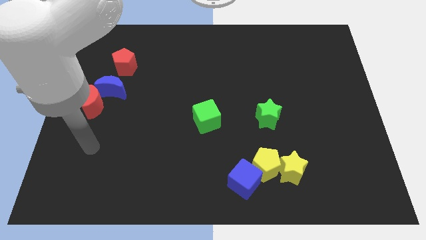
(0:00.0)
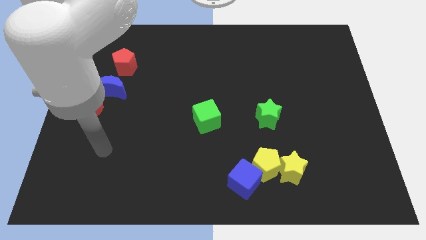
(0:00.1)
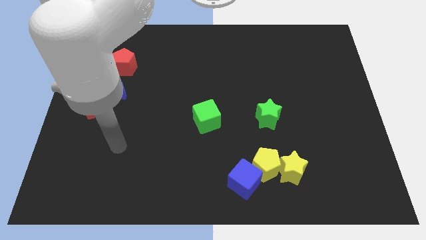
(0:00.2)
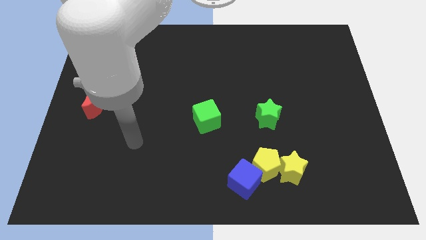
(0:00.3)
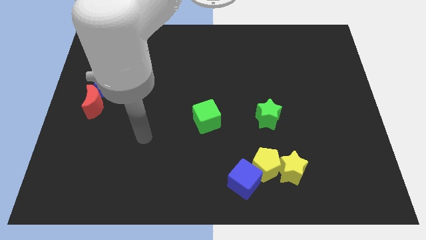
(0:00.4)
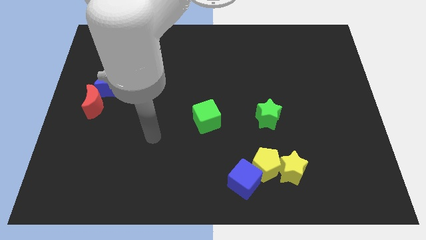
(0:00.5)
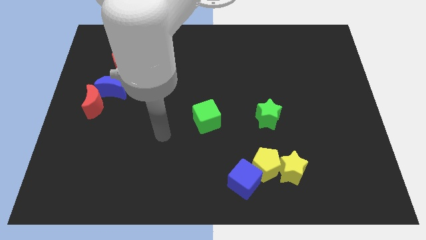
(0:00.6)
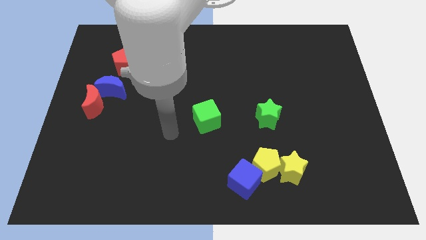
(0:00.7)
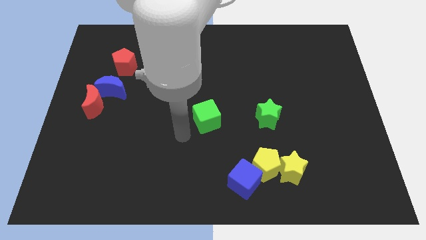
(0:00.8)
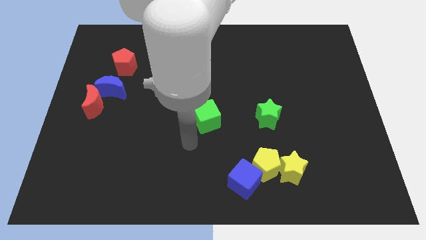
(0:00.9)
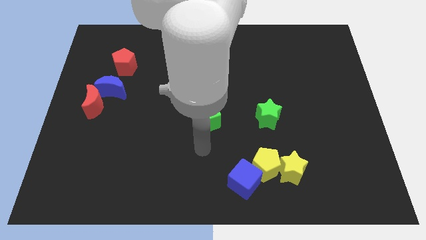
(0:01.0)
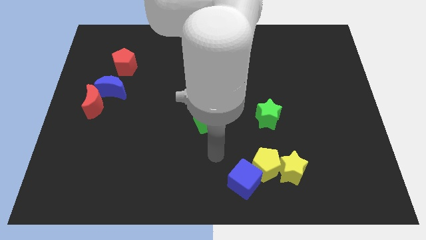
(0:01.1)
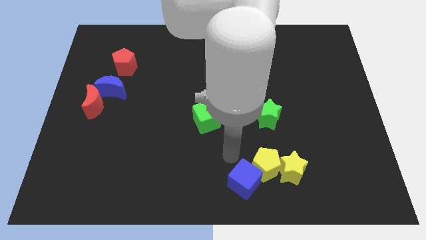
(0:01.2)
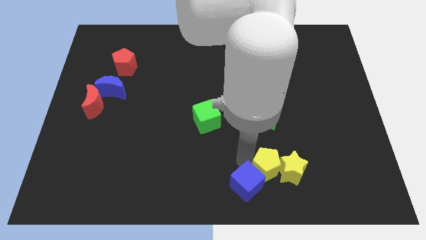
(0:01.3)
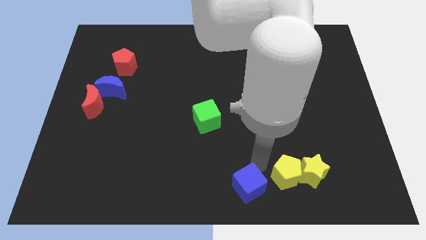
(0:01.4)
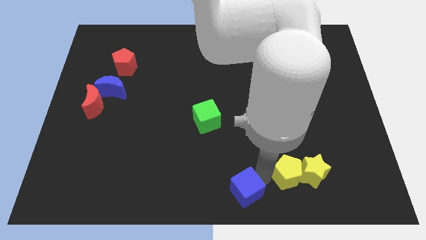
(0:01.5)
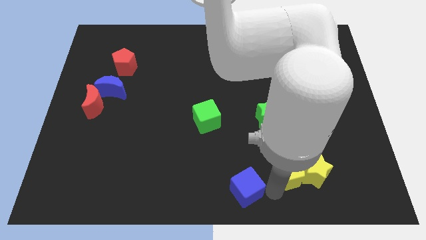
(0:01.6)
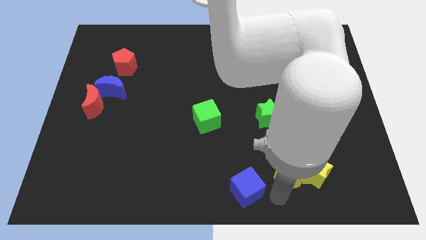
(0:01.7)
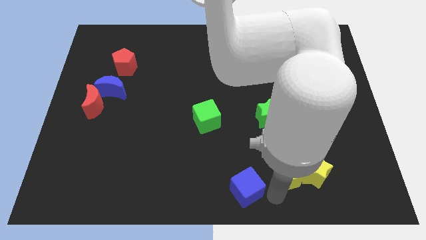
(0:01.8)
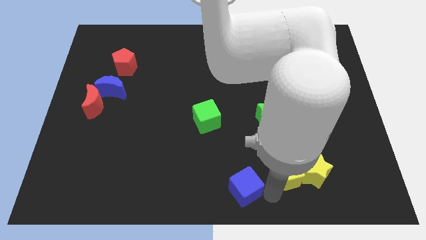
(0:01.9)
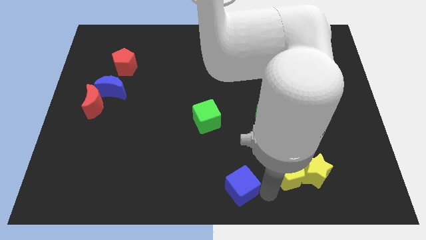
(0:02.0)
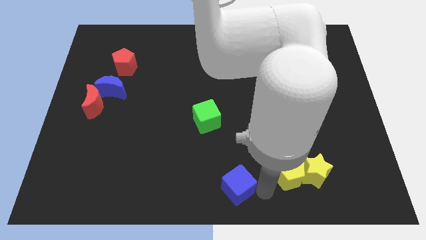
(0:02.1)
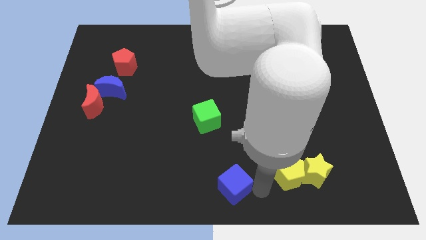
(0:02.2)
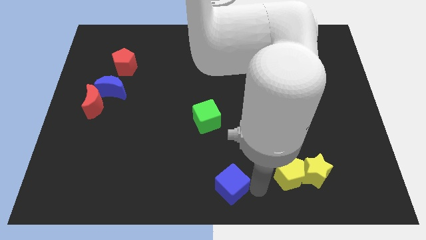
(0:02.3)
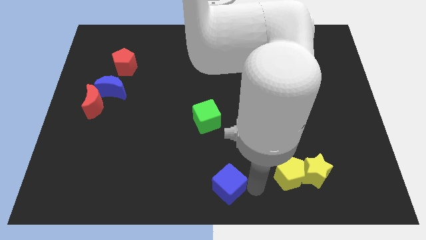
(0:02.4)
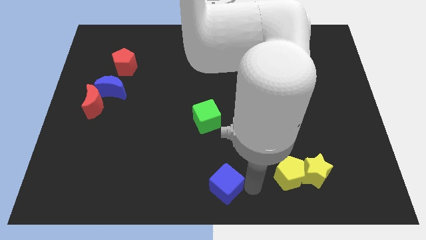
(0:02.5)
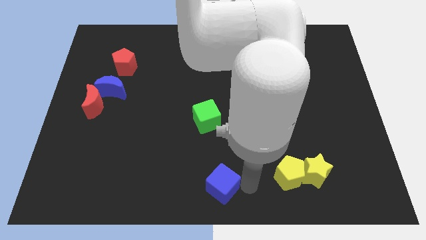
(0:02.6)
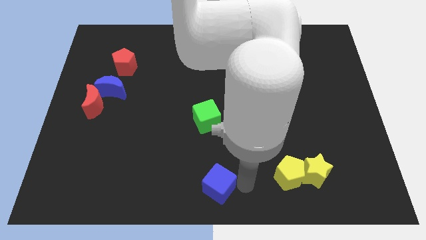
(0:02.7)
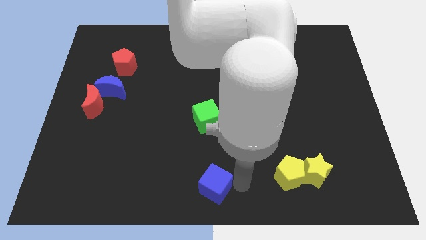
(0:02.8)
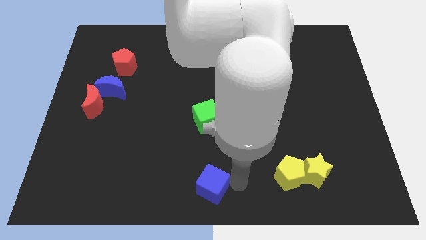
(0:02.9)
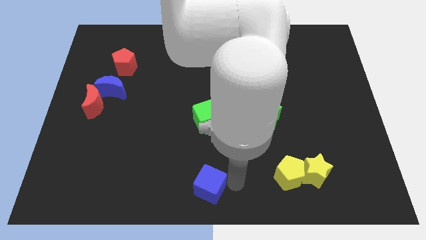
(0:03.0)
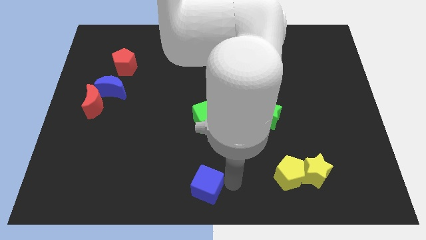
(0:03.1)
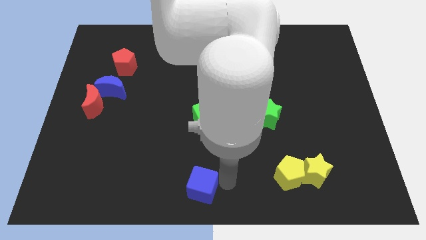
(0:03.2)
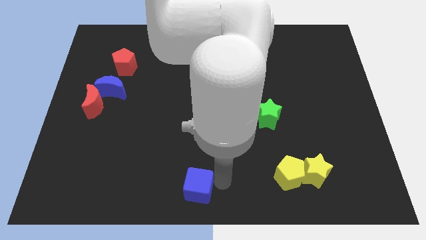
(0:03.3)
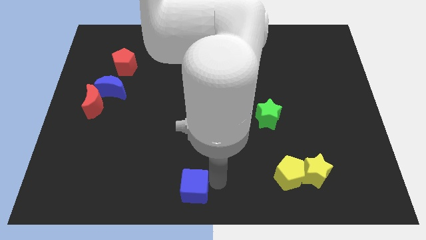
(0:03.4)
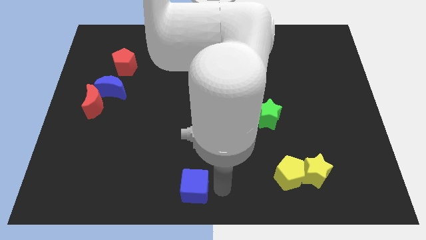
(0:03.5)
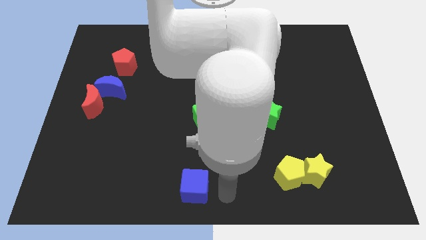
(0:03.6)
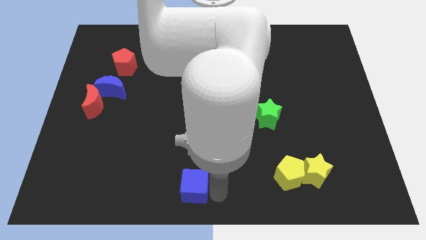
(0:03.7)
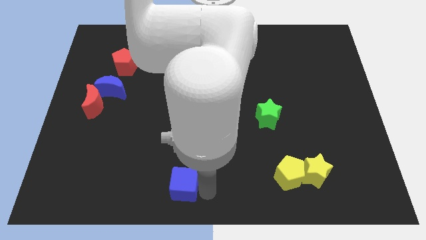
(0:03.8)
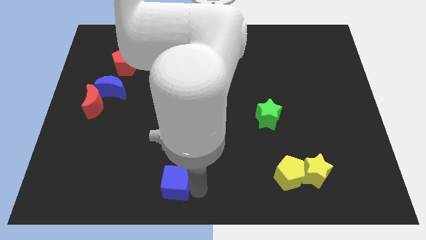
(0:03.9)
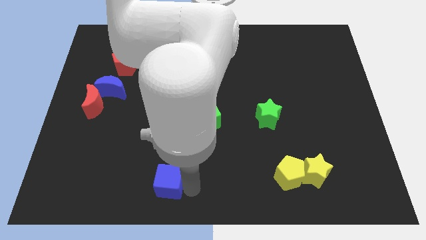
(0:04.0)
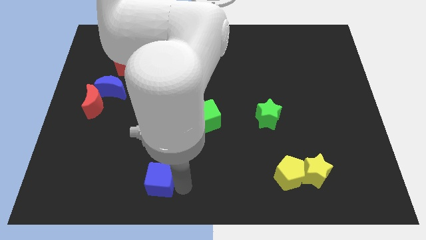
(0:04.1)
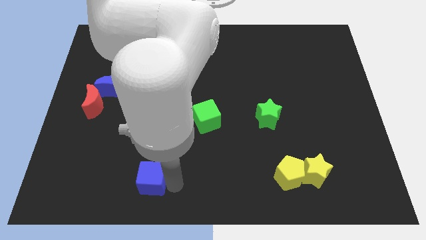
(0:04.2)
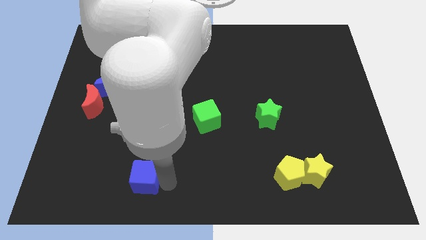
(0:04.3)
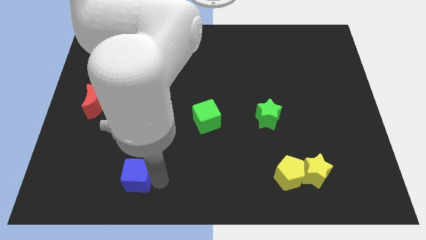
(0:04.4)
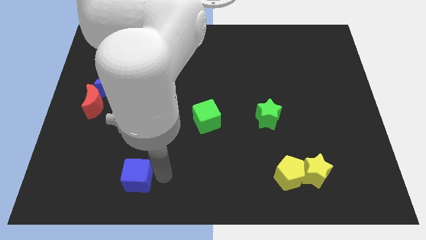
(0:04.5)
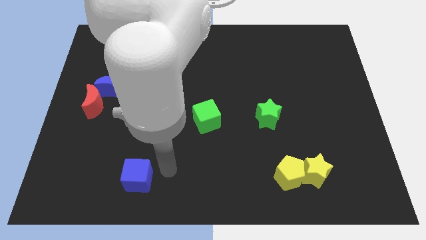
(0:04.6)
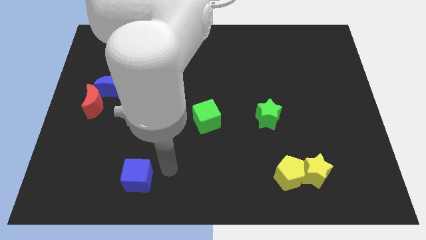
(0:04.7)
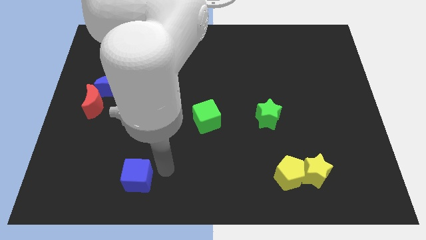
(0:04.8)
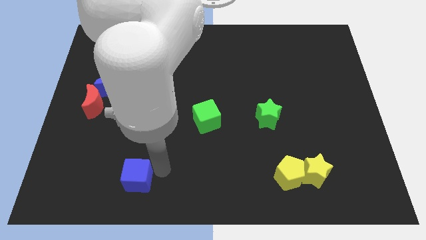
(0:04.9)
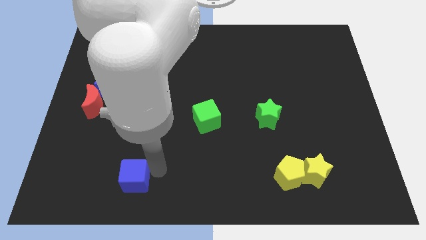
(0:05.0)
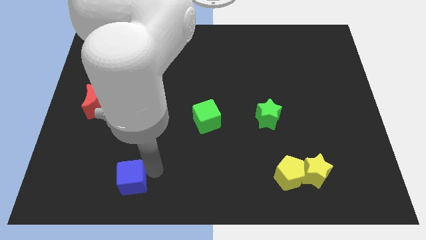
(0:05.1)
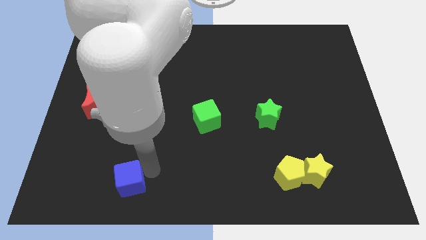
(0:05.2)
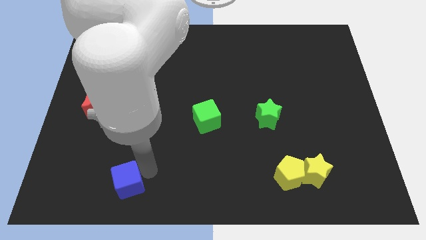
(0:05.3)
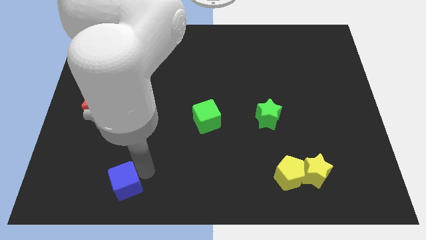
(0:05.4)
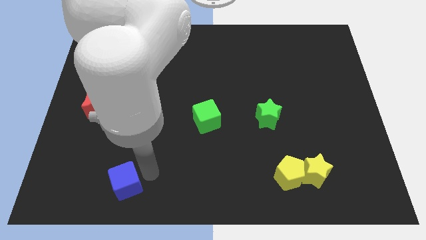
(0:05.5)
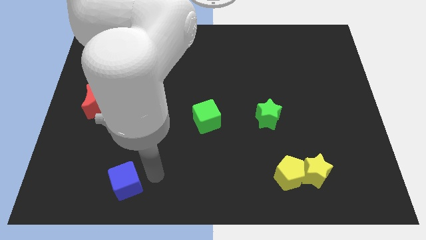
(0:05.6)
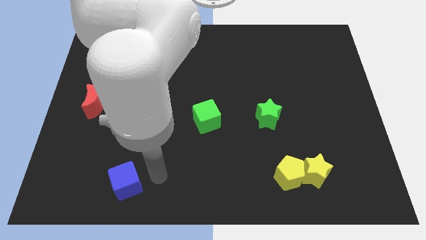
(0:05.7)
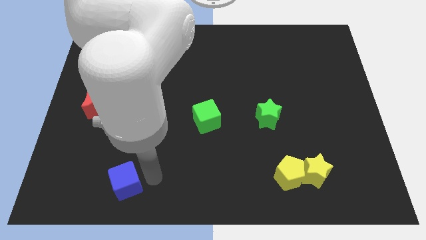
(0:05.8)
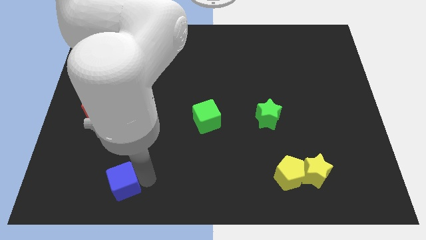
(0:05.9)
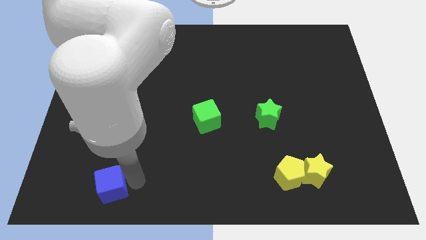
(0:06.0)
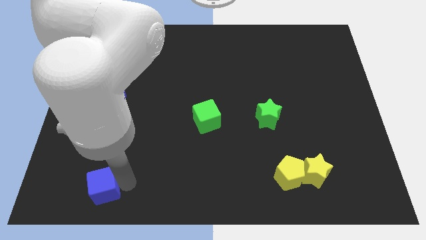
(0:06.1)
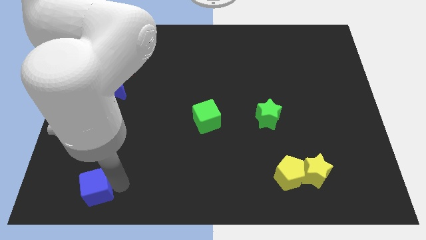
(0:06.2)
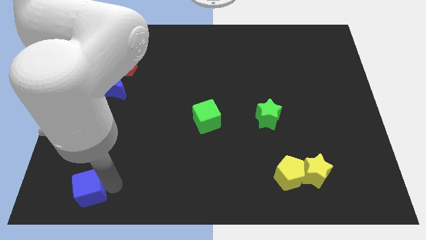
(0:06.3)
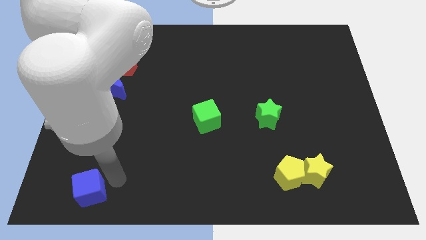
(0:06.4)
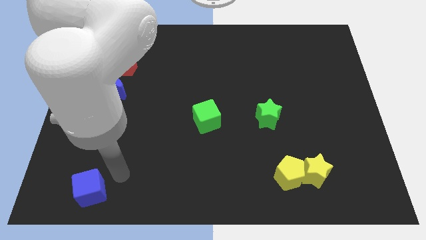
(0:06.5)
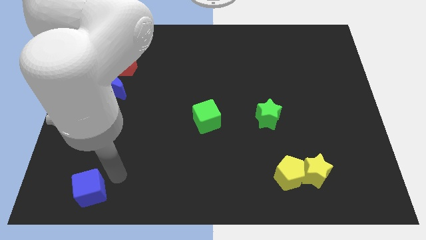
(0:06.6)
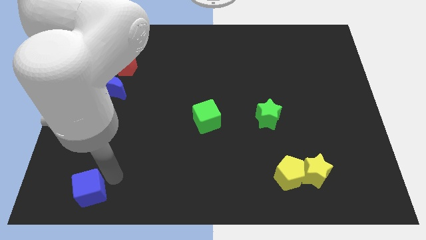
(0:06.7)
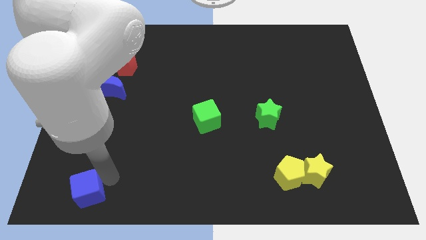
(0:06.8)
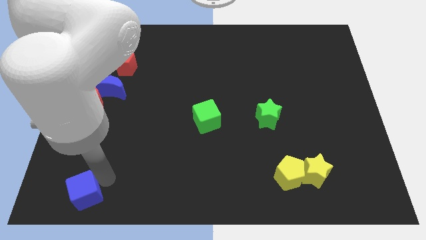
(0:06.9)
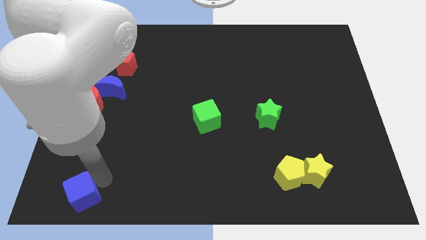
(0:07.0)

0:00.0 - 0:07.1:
put the blue cube to the bottom left

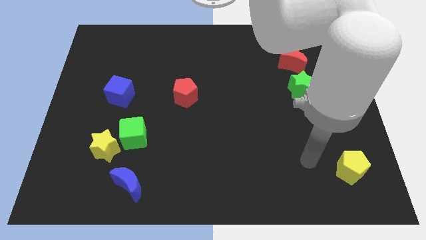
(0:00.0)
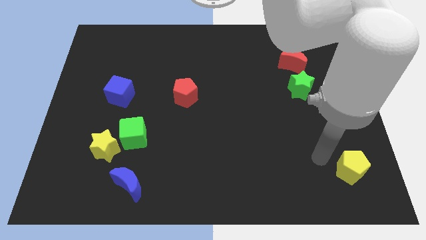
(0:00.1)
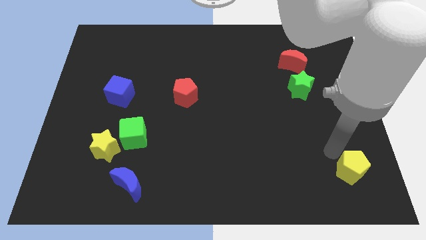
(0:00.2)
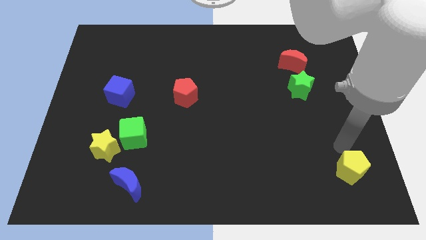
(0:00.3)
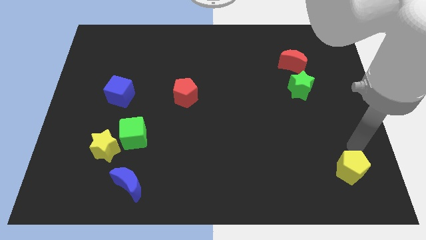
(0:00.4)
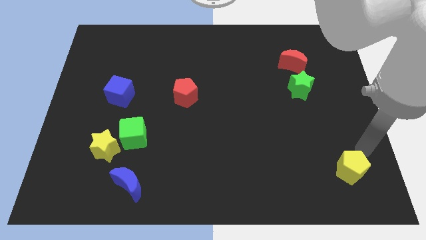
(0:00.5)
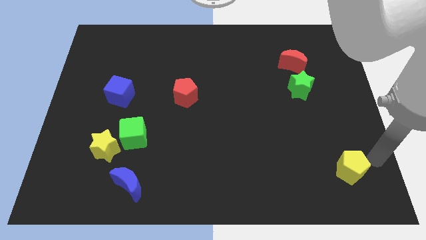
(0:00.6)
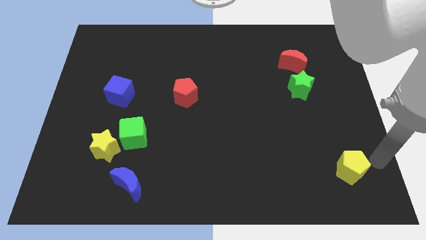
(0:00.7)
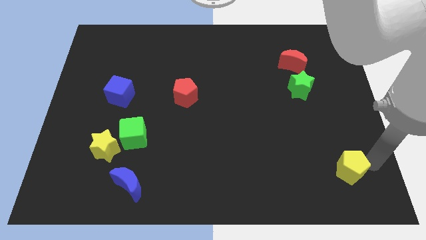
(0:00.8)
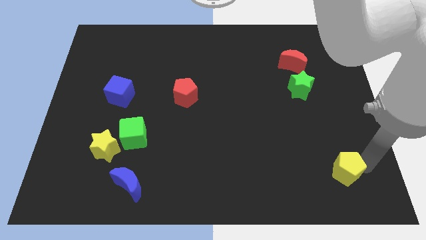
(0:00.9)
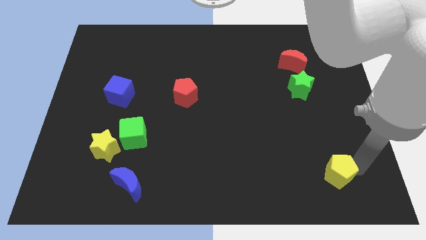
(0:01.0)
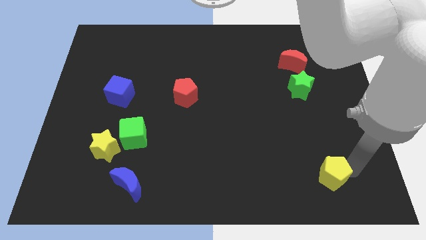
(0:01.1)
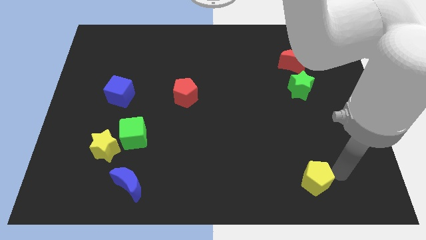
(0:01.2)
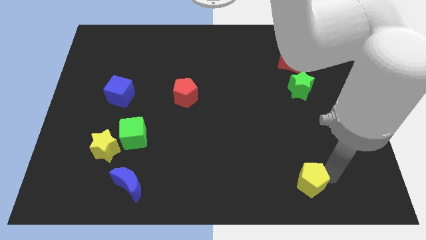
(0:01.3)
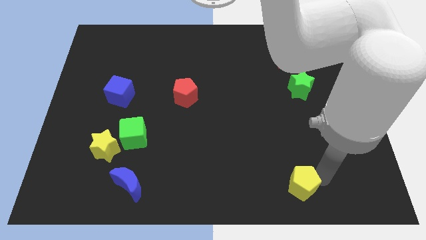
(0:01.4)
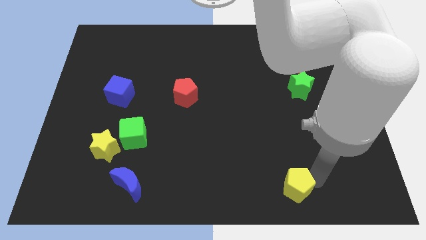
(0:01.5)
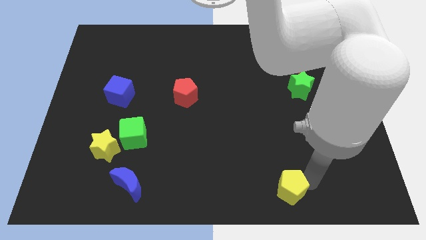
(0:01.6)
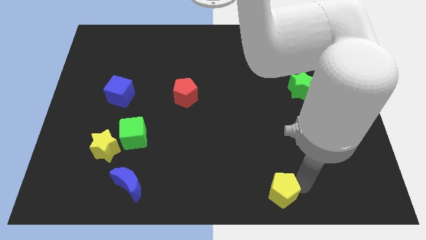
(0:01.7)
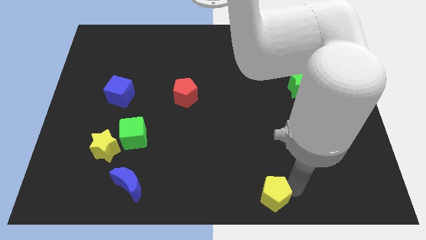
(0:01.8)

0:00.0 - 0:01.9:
slide the yellow pentagon to the bottom
